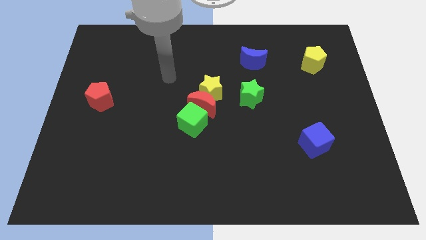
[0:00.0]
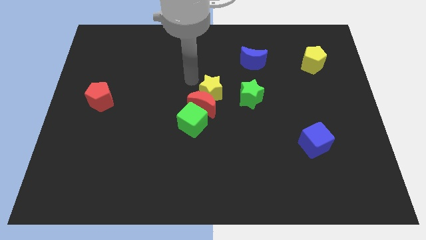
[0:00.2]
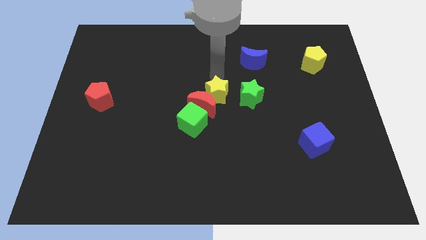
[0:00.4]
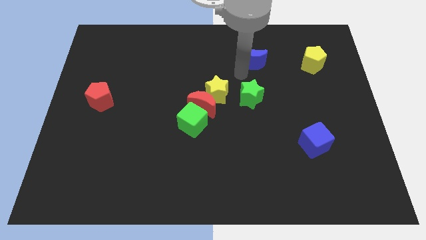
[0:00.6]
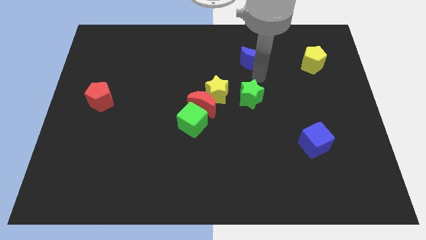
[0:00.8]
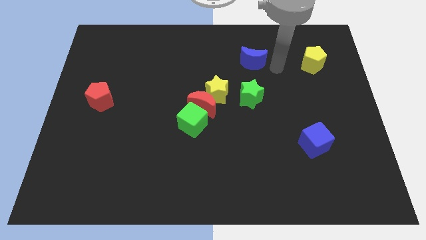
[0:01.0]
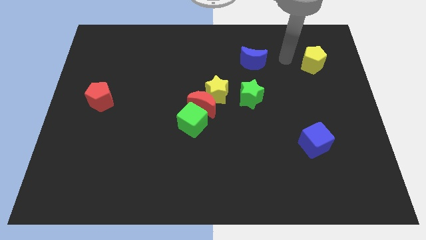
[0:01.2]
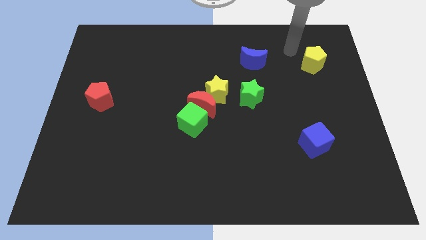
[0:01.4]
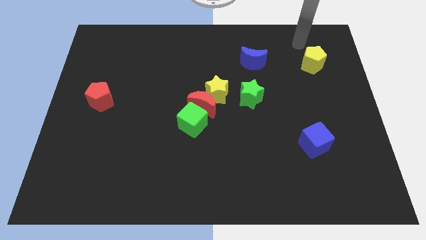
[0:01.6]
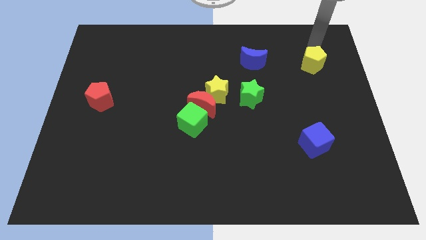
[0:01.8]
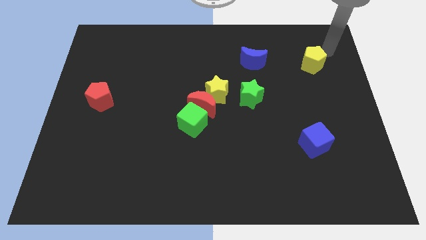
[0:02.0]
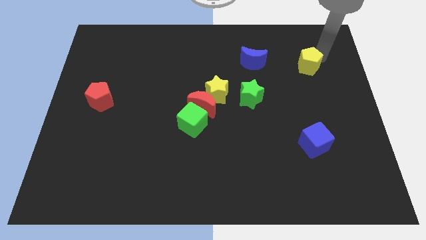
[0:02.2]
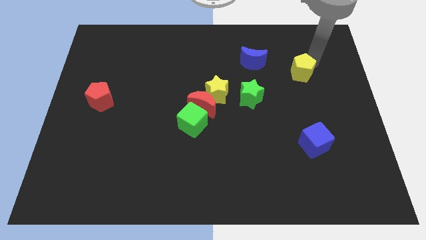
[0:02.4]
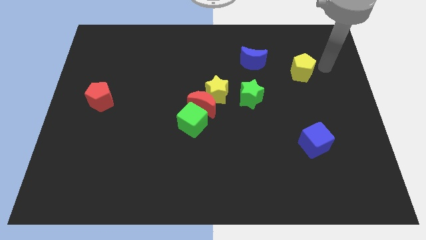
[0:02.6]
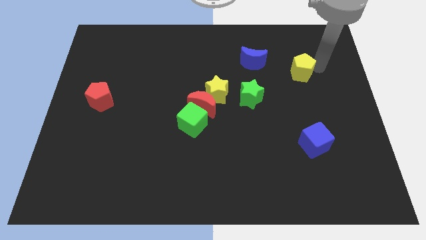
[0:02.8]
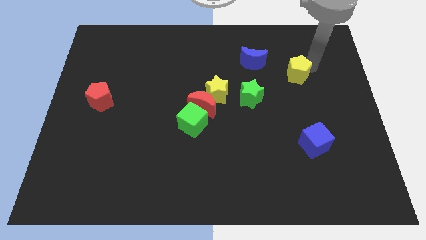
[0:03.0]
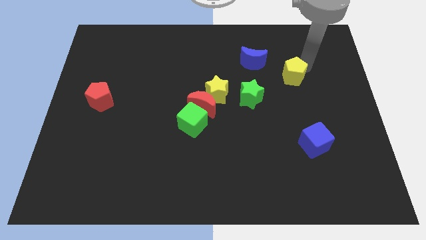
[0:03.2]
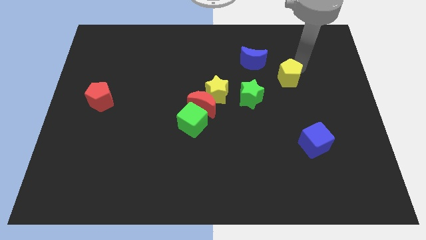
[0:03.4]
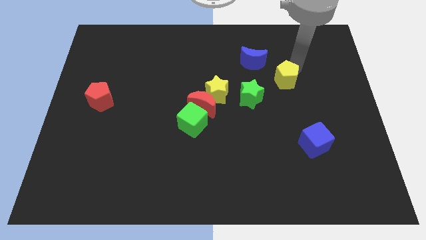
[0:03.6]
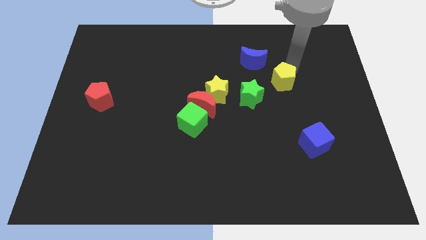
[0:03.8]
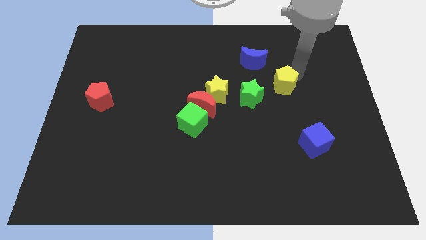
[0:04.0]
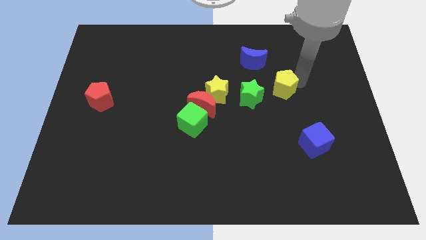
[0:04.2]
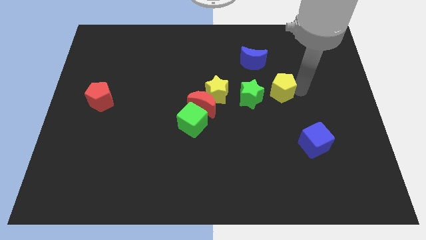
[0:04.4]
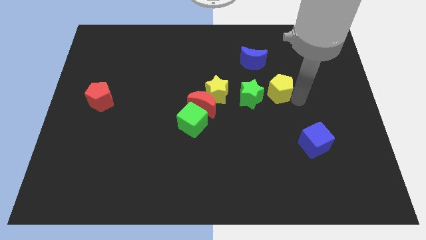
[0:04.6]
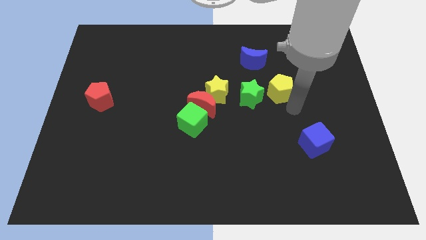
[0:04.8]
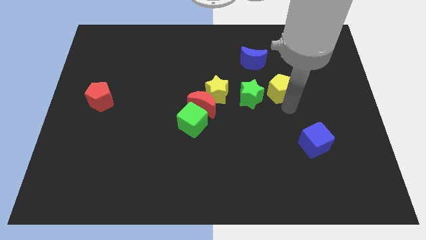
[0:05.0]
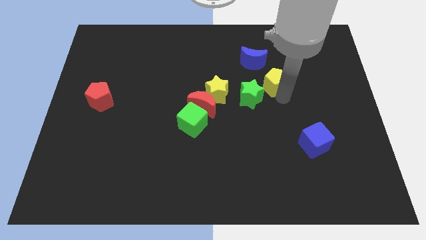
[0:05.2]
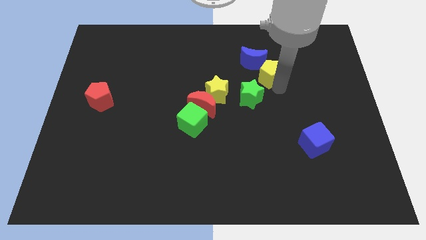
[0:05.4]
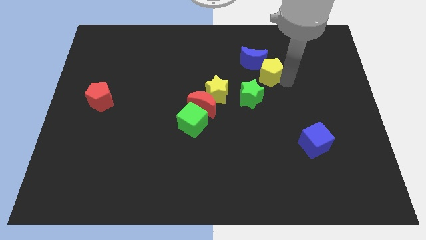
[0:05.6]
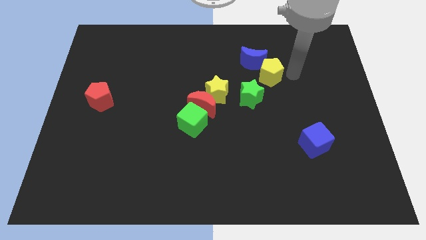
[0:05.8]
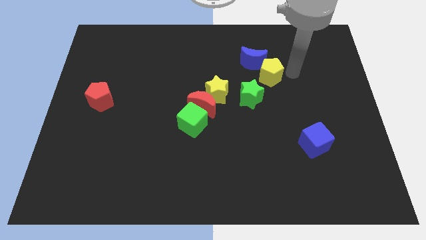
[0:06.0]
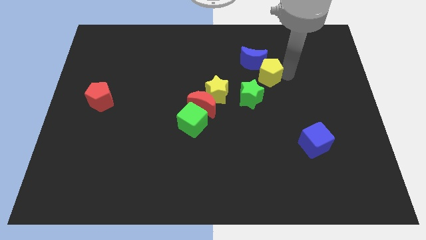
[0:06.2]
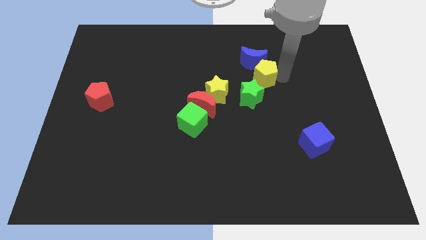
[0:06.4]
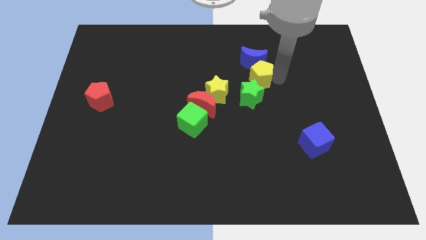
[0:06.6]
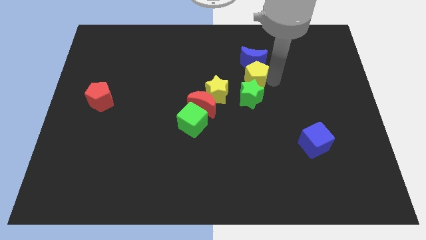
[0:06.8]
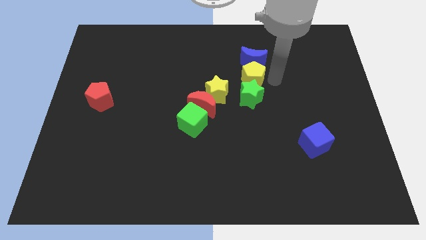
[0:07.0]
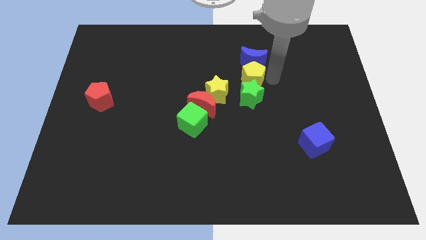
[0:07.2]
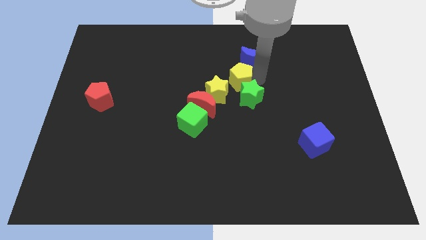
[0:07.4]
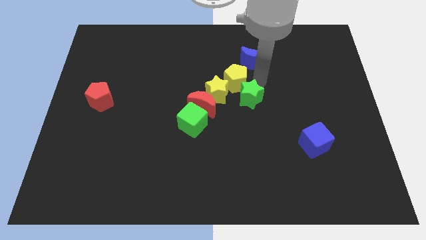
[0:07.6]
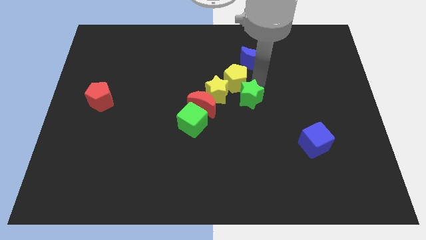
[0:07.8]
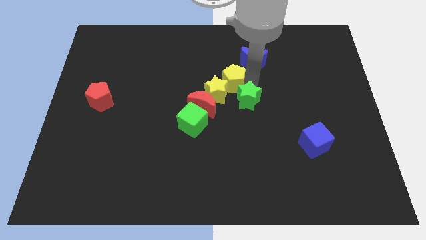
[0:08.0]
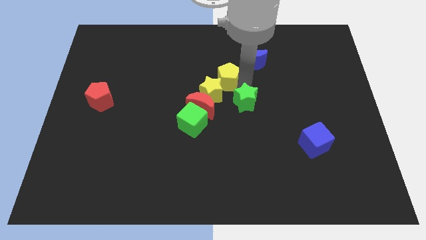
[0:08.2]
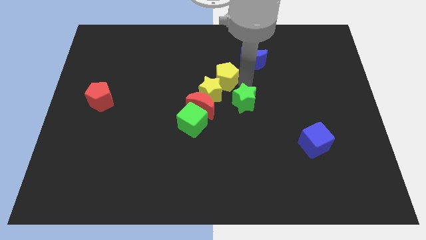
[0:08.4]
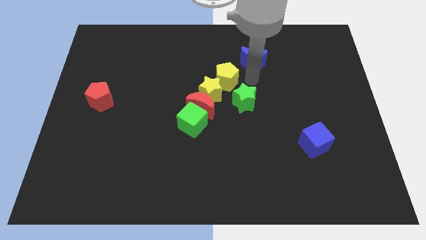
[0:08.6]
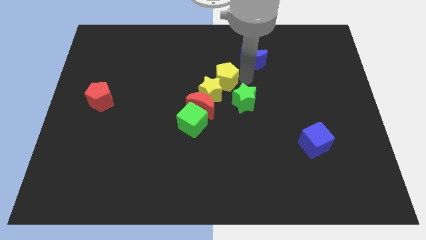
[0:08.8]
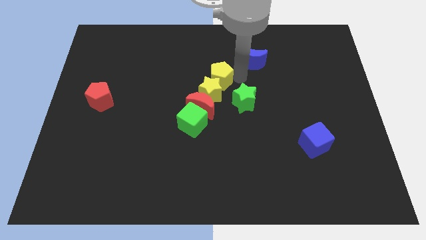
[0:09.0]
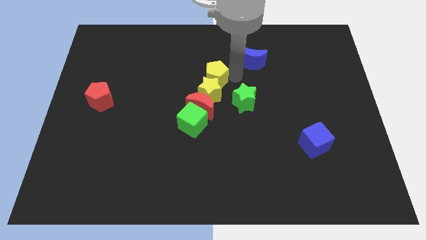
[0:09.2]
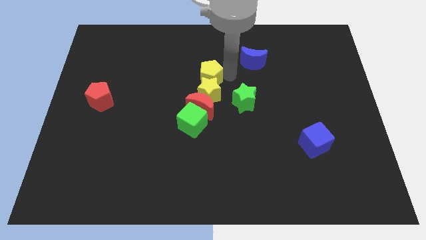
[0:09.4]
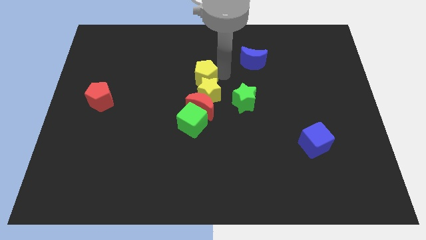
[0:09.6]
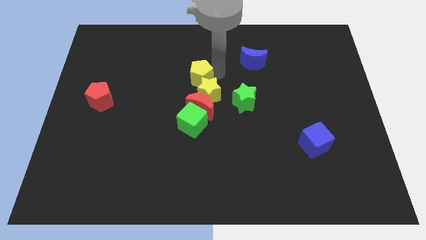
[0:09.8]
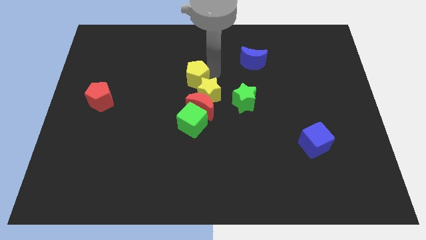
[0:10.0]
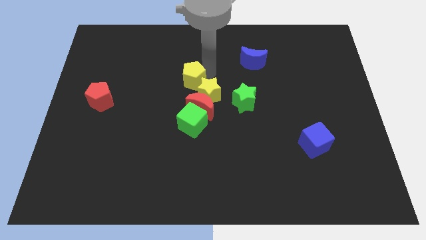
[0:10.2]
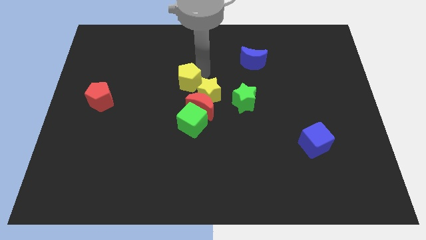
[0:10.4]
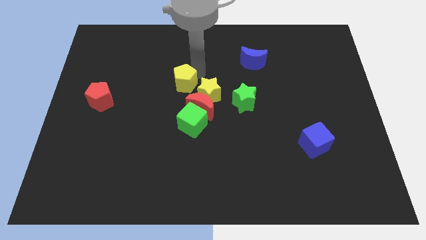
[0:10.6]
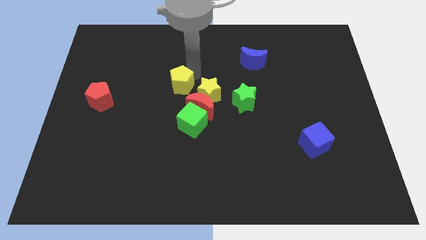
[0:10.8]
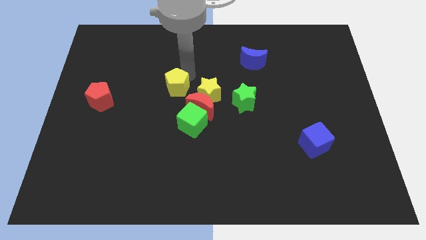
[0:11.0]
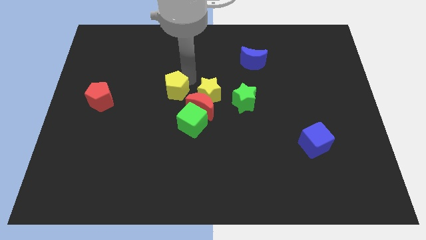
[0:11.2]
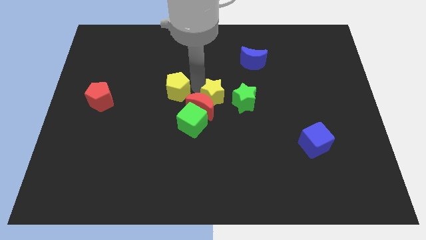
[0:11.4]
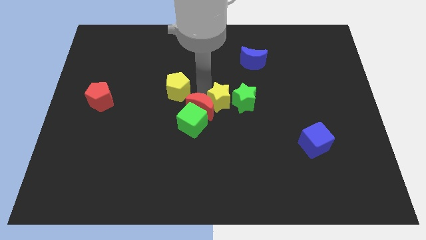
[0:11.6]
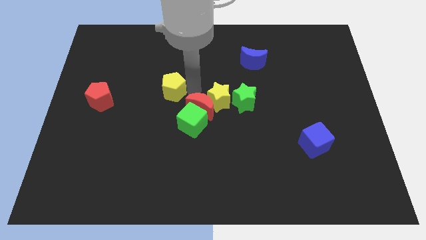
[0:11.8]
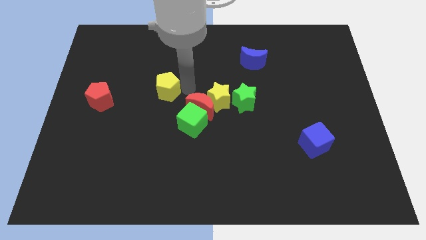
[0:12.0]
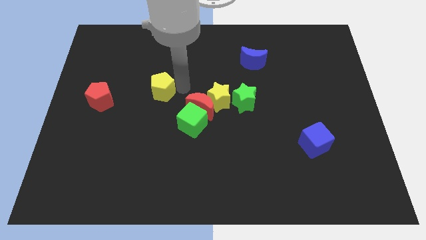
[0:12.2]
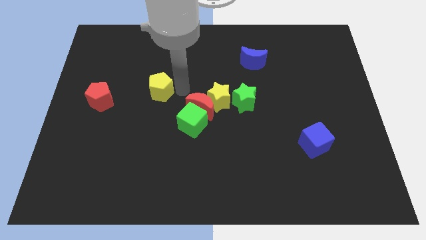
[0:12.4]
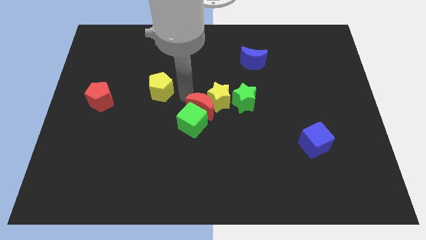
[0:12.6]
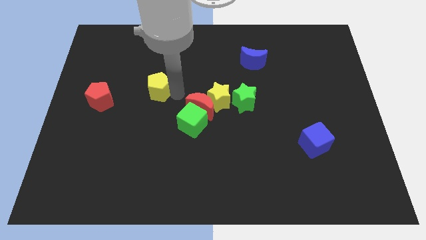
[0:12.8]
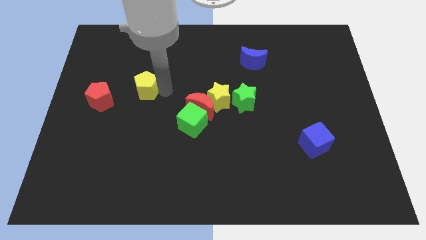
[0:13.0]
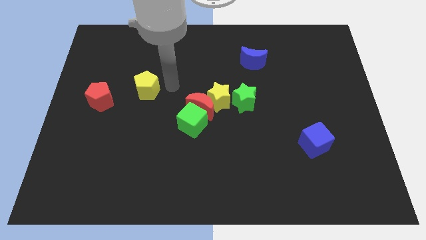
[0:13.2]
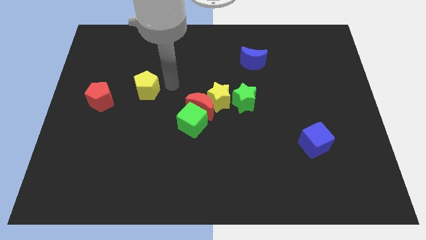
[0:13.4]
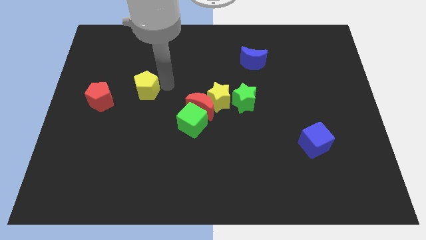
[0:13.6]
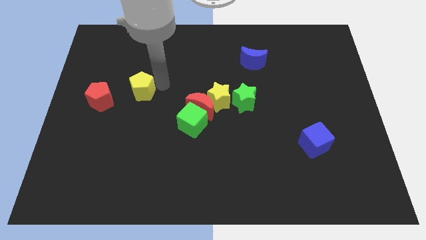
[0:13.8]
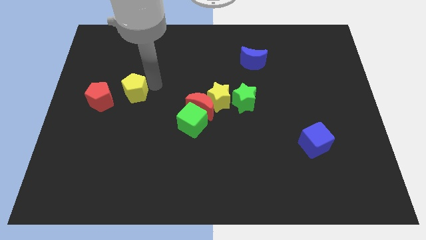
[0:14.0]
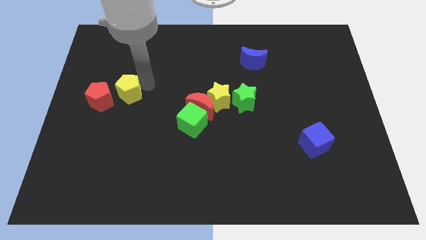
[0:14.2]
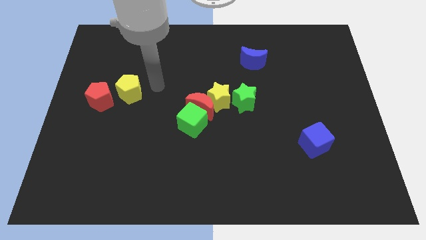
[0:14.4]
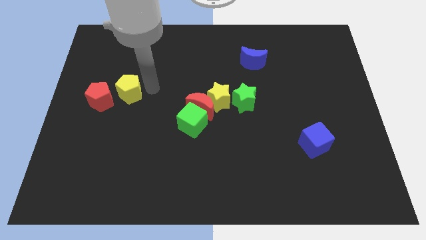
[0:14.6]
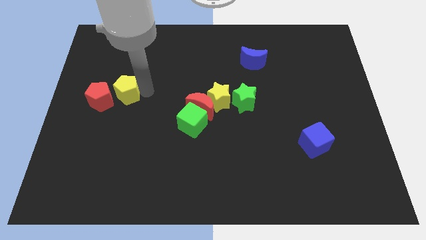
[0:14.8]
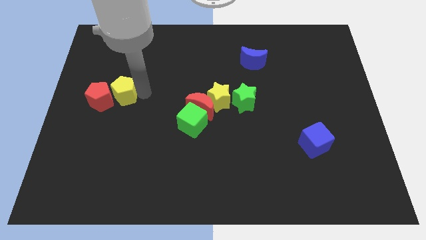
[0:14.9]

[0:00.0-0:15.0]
move the yellow pentagon close to the red pentagon
